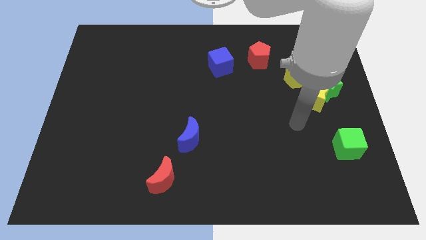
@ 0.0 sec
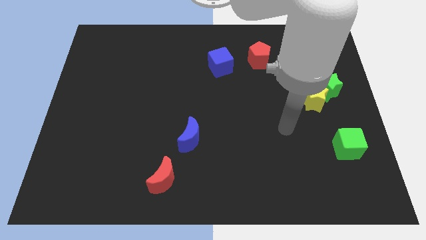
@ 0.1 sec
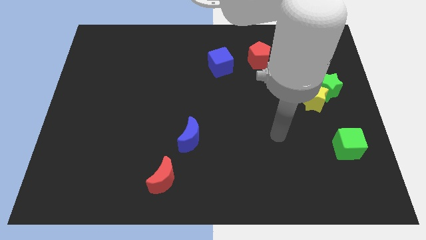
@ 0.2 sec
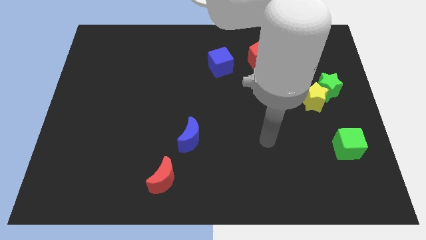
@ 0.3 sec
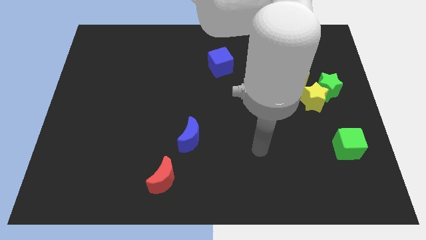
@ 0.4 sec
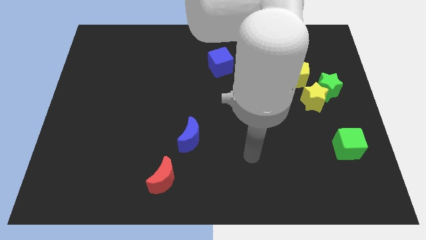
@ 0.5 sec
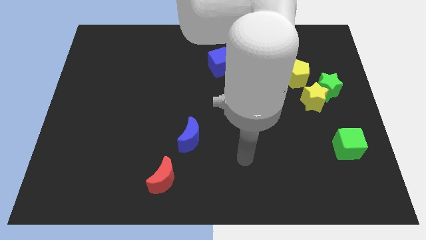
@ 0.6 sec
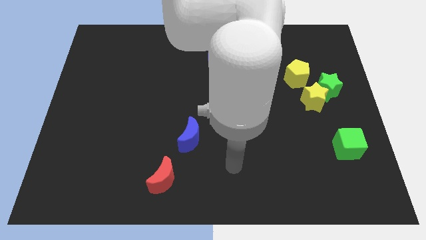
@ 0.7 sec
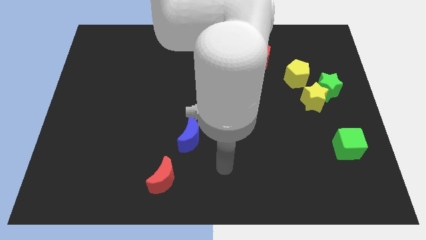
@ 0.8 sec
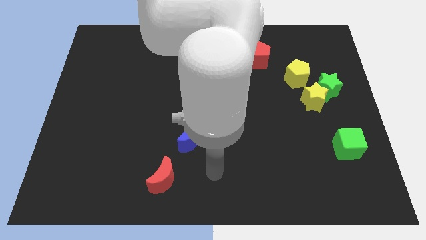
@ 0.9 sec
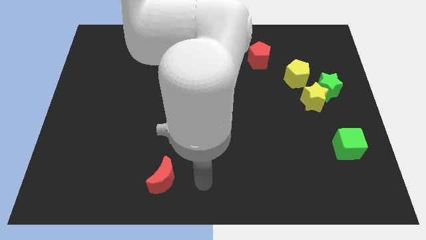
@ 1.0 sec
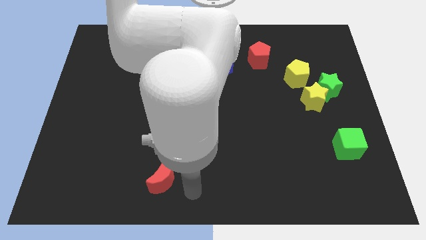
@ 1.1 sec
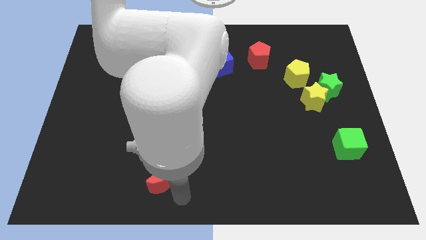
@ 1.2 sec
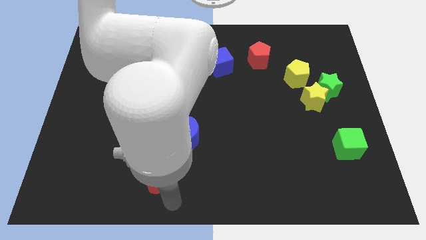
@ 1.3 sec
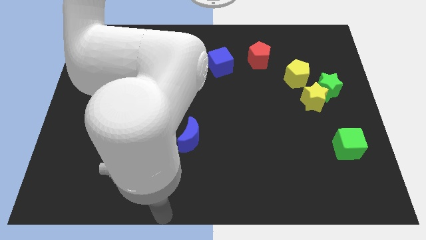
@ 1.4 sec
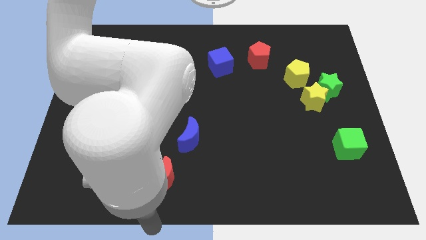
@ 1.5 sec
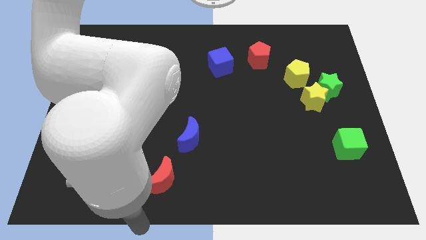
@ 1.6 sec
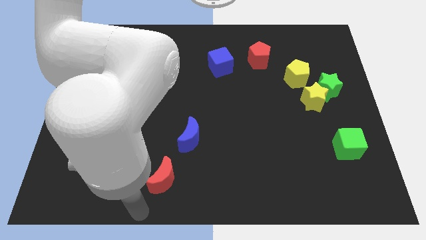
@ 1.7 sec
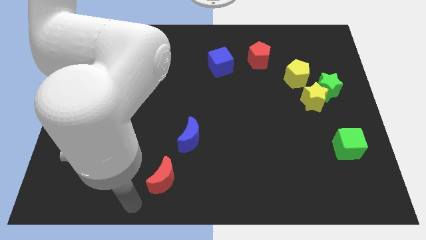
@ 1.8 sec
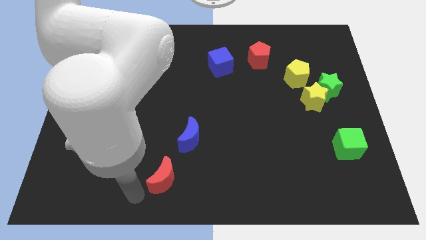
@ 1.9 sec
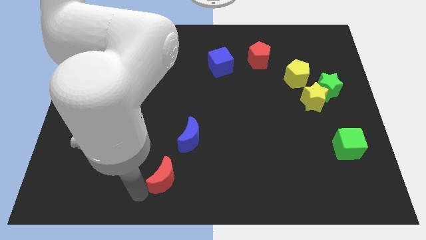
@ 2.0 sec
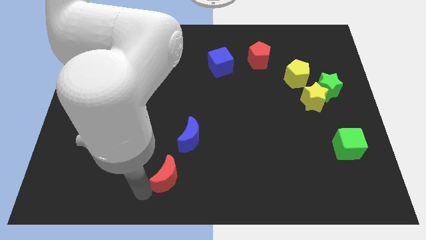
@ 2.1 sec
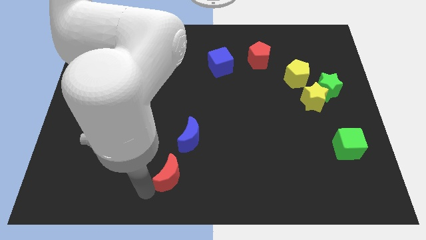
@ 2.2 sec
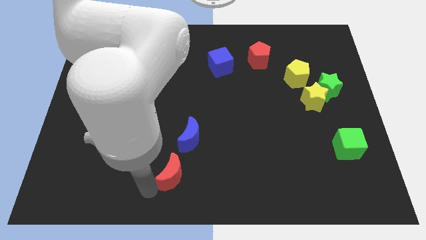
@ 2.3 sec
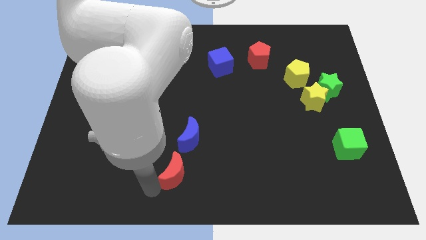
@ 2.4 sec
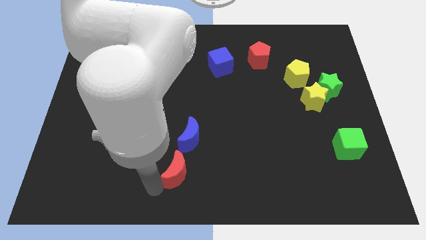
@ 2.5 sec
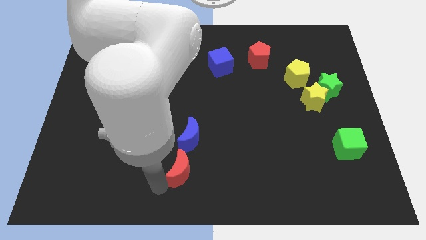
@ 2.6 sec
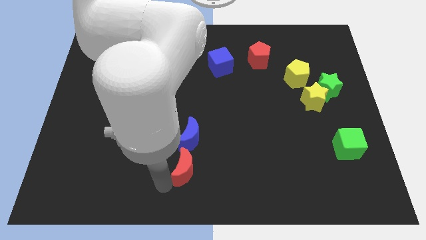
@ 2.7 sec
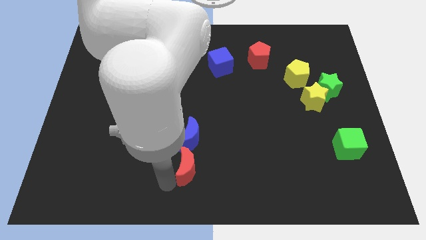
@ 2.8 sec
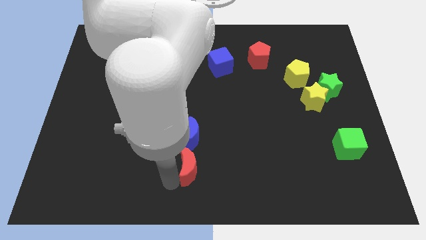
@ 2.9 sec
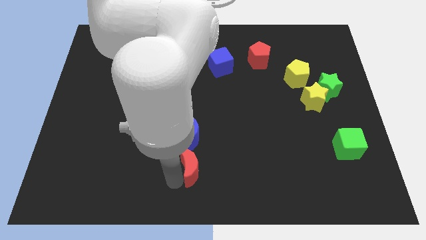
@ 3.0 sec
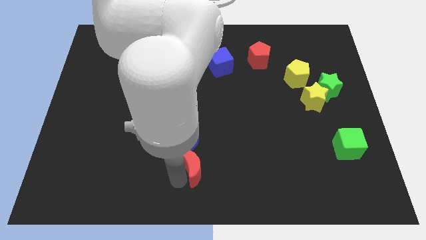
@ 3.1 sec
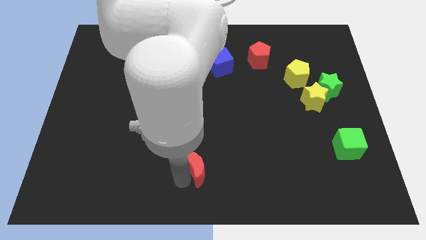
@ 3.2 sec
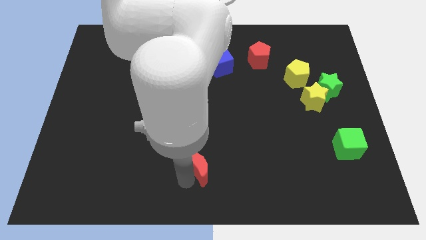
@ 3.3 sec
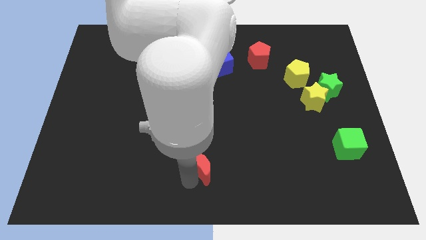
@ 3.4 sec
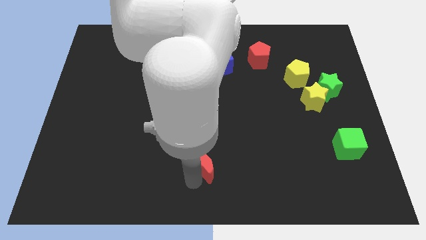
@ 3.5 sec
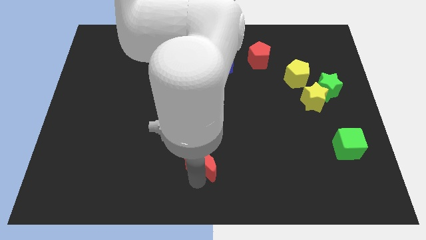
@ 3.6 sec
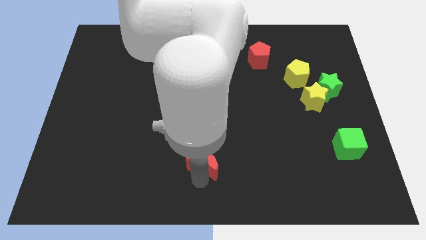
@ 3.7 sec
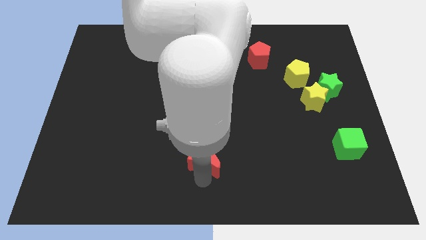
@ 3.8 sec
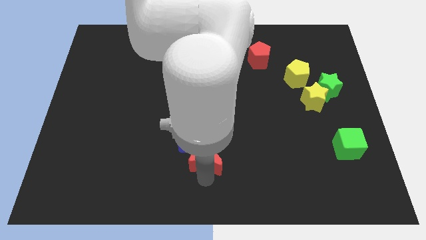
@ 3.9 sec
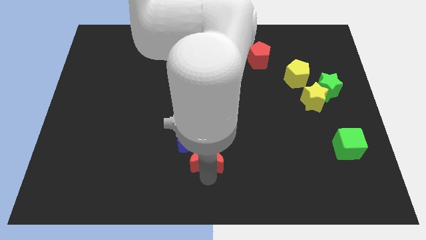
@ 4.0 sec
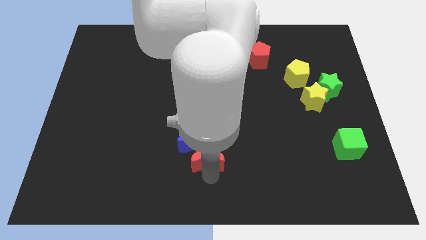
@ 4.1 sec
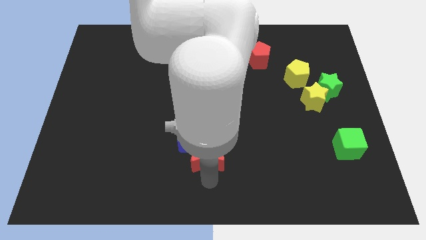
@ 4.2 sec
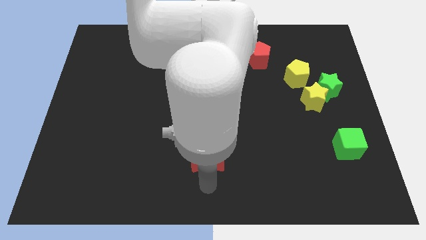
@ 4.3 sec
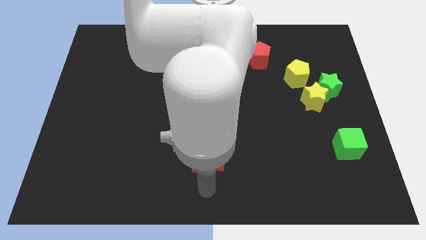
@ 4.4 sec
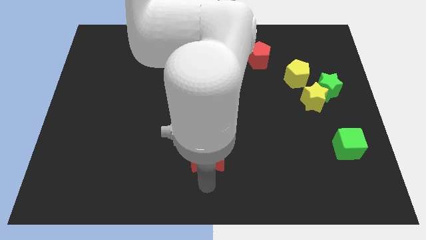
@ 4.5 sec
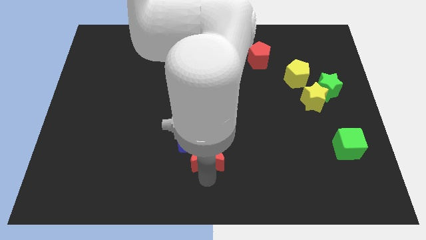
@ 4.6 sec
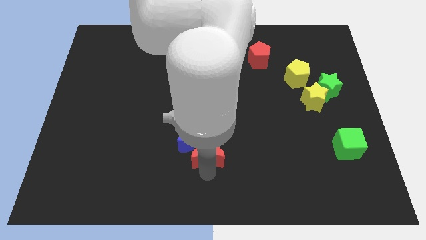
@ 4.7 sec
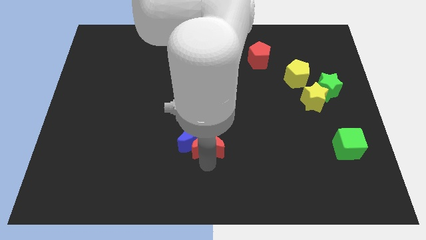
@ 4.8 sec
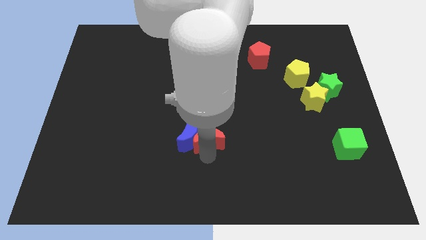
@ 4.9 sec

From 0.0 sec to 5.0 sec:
move the red moon to the middle of the board

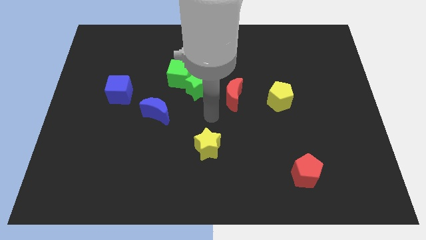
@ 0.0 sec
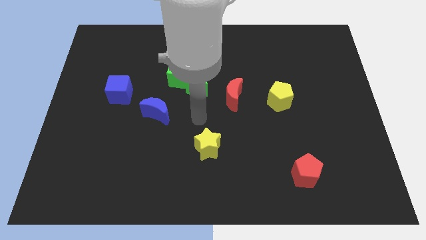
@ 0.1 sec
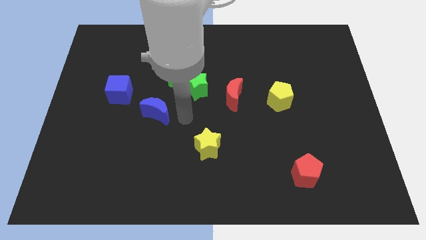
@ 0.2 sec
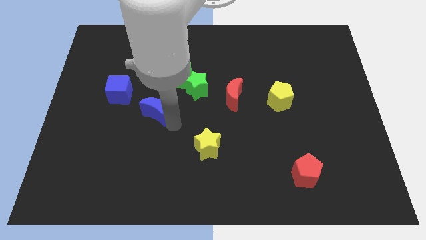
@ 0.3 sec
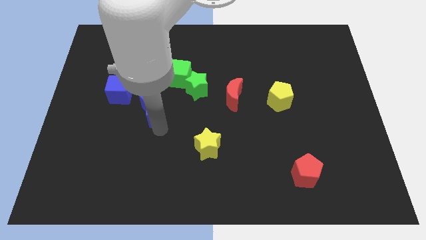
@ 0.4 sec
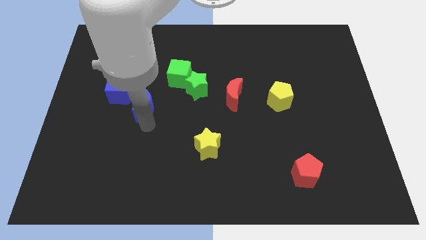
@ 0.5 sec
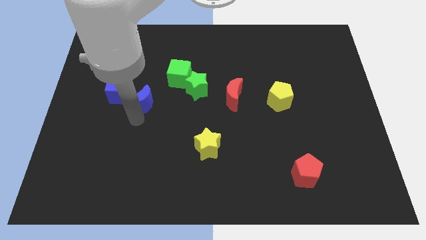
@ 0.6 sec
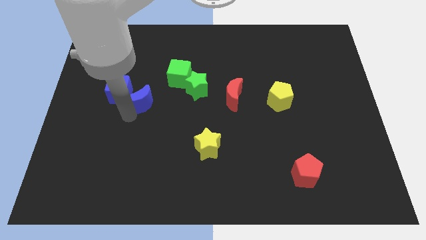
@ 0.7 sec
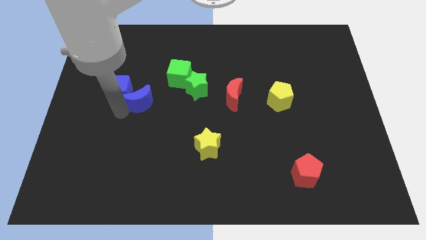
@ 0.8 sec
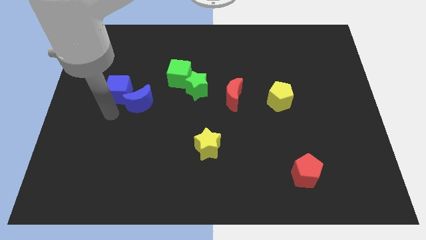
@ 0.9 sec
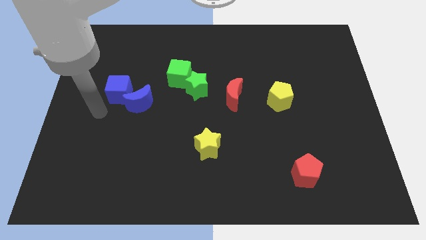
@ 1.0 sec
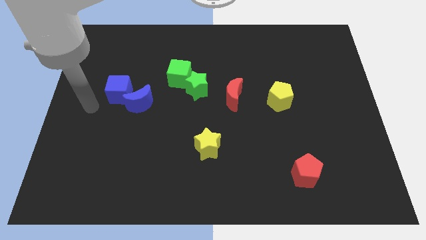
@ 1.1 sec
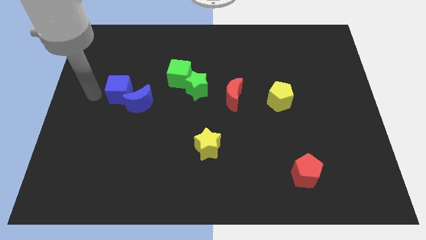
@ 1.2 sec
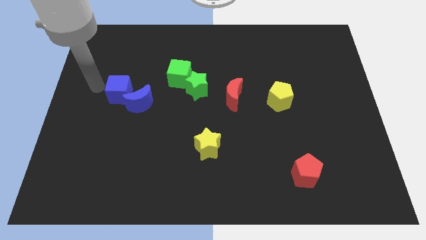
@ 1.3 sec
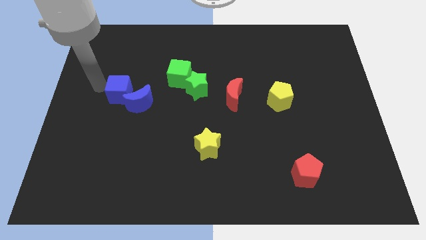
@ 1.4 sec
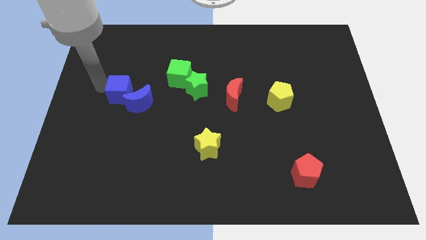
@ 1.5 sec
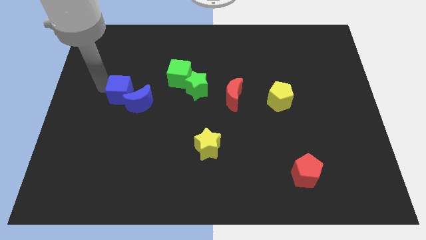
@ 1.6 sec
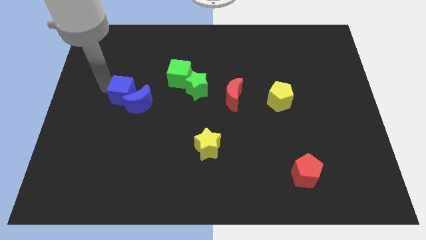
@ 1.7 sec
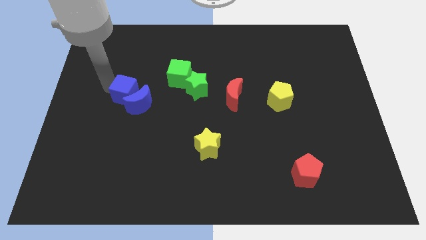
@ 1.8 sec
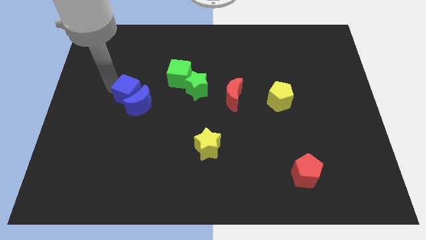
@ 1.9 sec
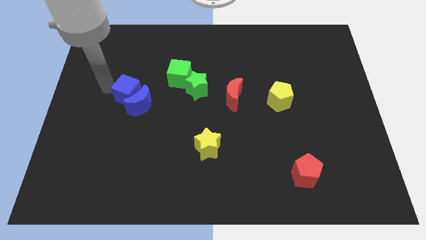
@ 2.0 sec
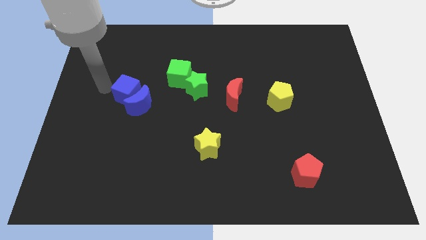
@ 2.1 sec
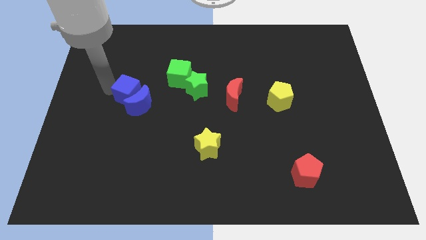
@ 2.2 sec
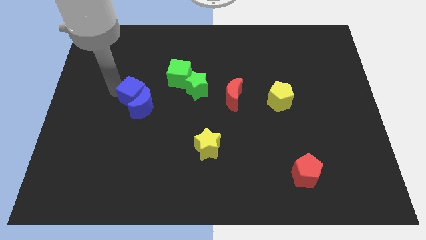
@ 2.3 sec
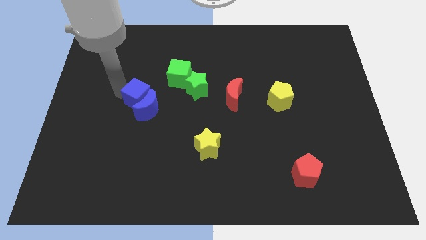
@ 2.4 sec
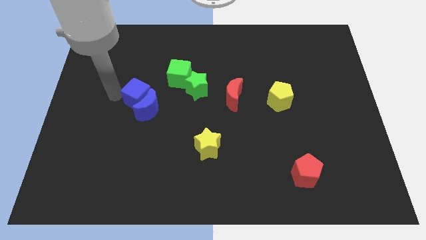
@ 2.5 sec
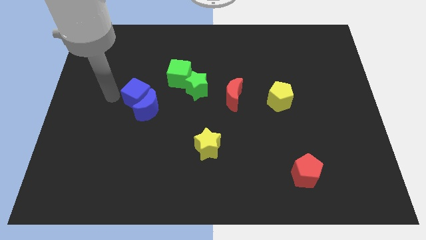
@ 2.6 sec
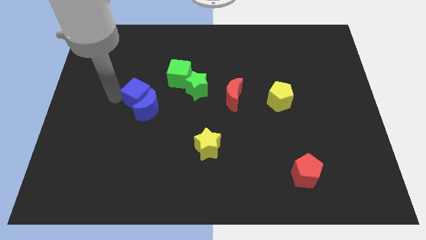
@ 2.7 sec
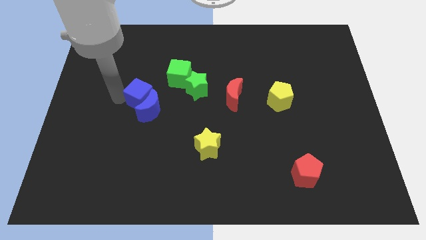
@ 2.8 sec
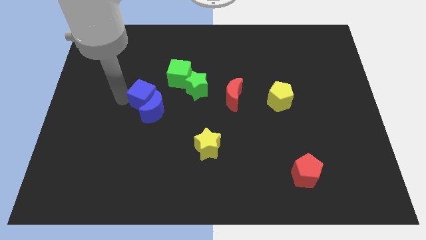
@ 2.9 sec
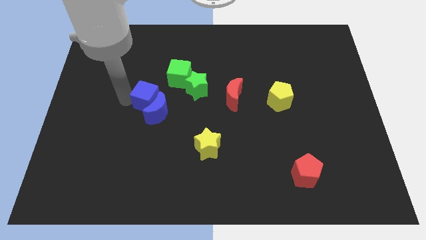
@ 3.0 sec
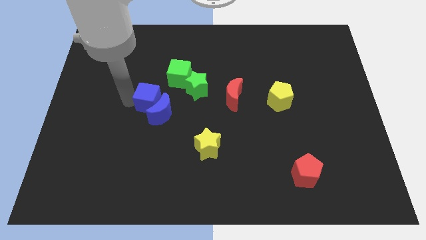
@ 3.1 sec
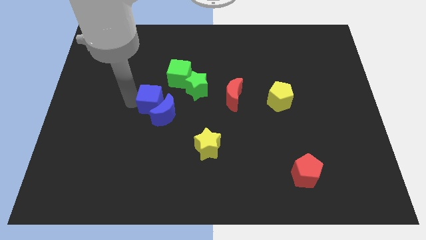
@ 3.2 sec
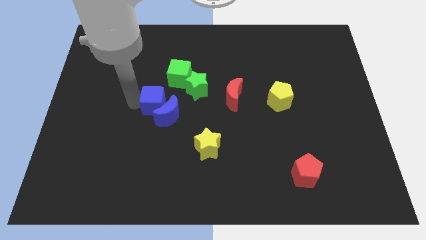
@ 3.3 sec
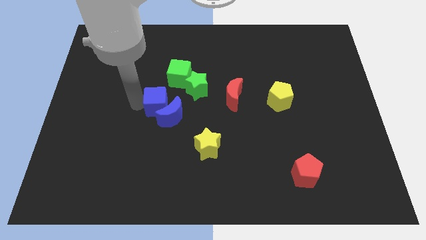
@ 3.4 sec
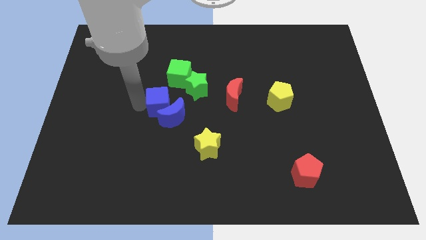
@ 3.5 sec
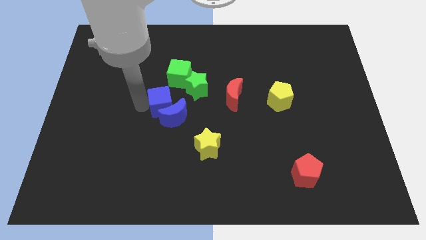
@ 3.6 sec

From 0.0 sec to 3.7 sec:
put the blue cube to the middle of the board
